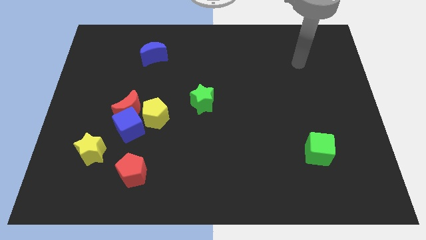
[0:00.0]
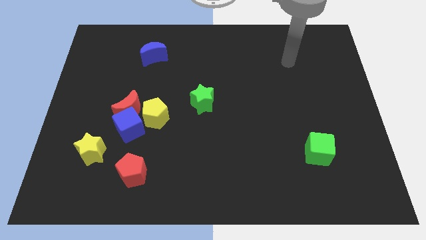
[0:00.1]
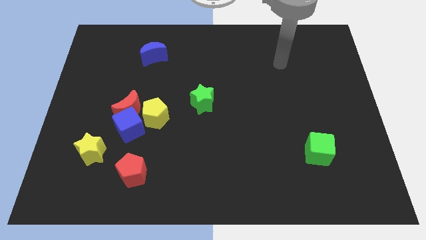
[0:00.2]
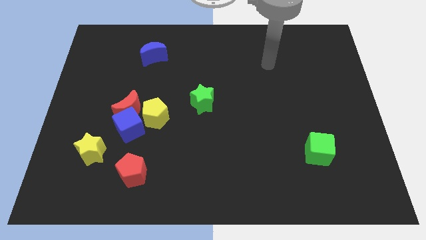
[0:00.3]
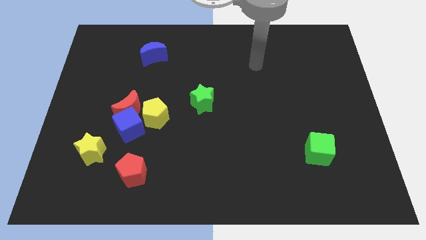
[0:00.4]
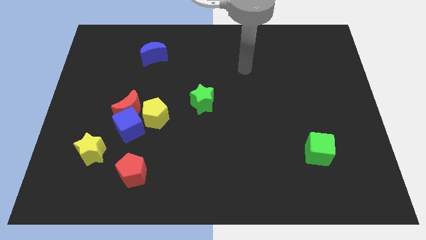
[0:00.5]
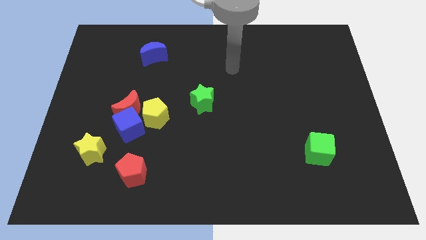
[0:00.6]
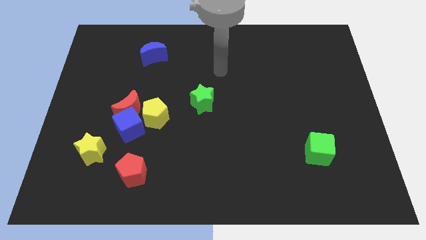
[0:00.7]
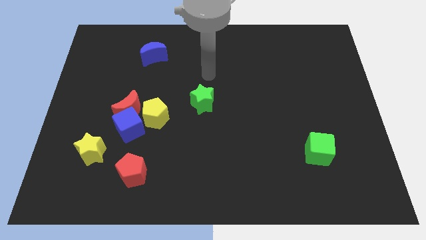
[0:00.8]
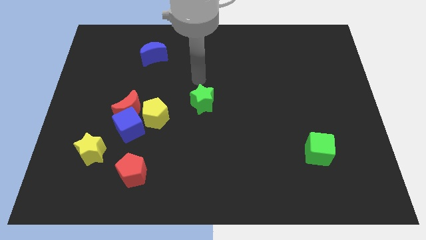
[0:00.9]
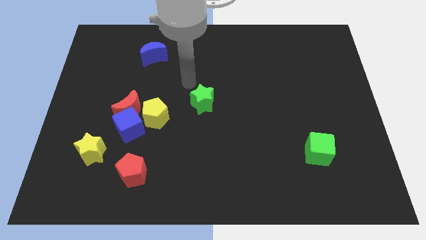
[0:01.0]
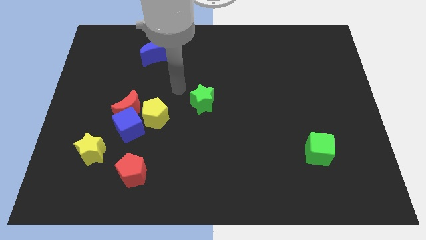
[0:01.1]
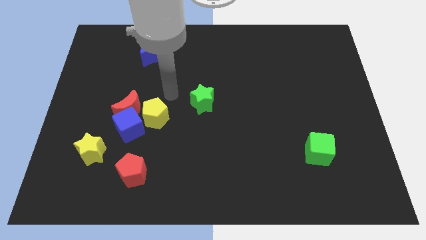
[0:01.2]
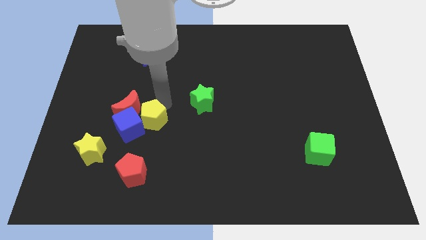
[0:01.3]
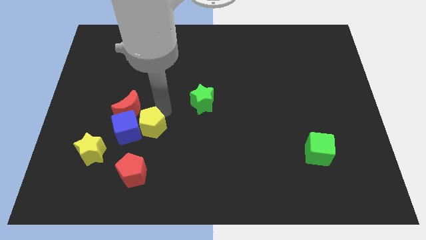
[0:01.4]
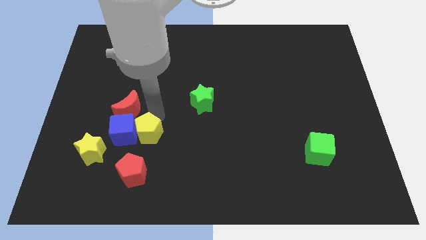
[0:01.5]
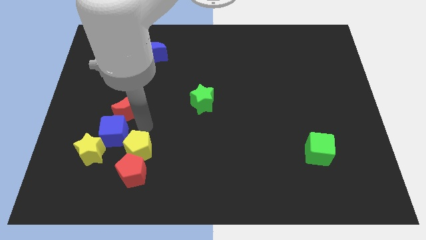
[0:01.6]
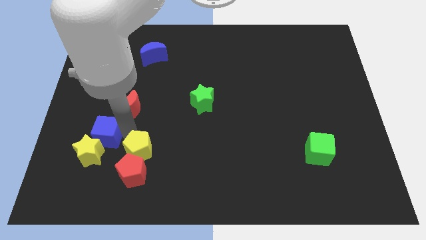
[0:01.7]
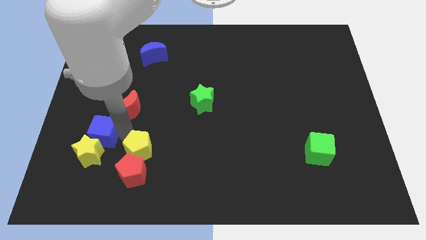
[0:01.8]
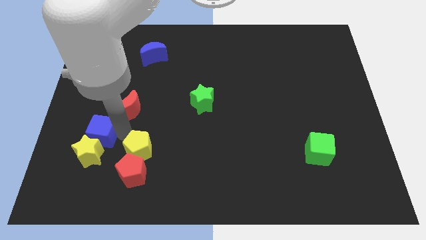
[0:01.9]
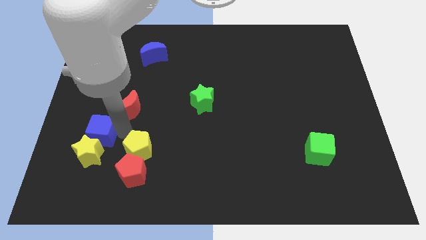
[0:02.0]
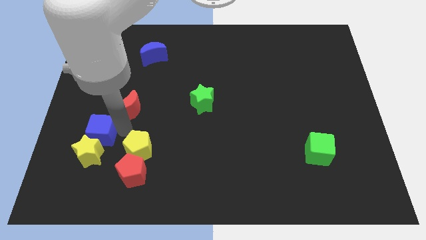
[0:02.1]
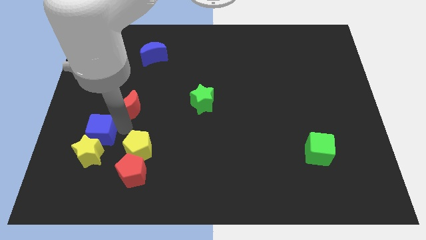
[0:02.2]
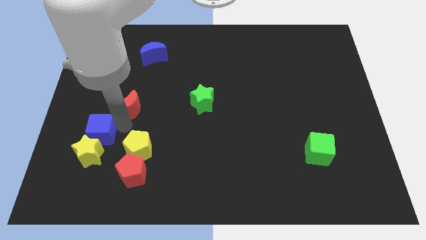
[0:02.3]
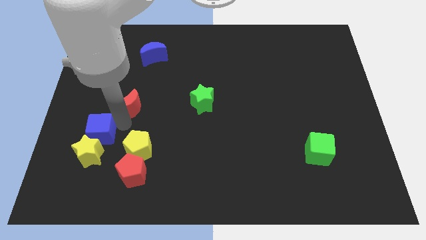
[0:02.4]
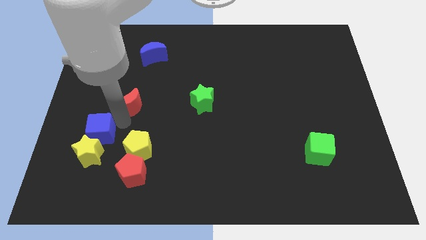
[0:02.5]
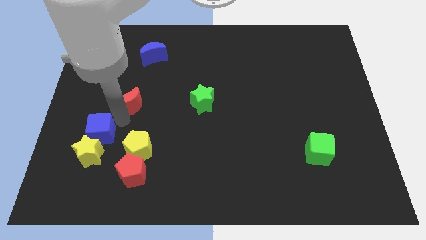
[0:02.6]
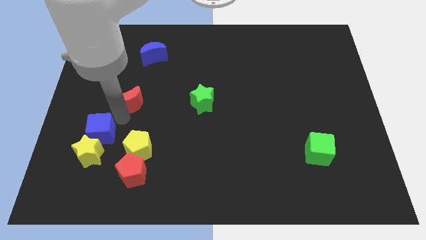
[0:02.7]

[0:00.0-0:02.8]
pull the red moon apart from the blue cube and yellow pentagon

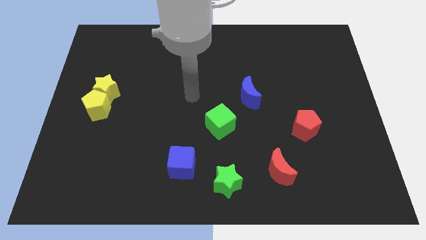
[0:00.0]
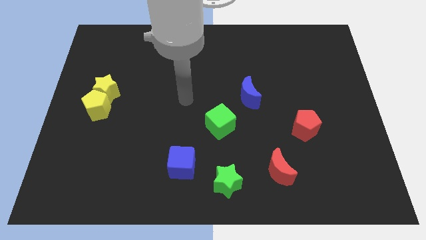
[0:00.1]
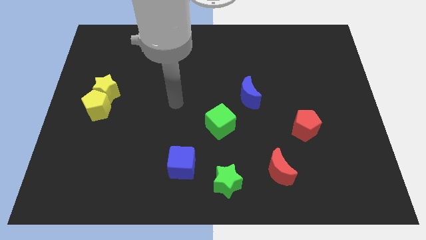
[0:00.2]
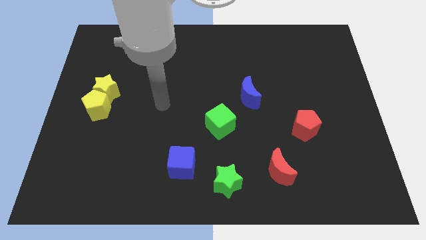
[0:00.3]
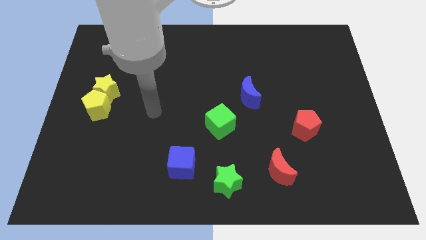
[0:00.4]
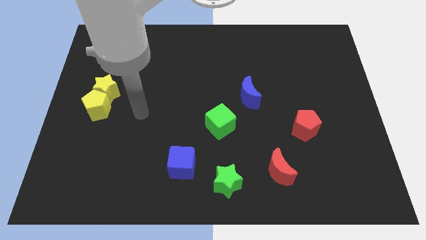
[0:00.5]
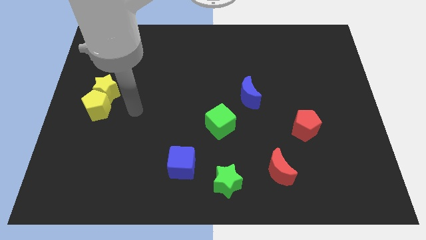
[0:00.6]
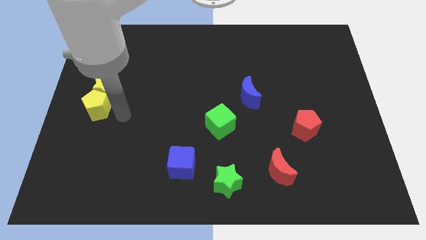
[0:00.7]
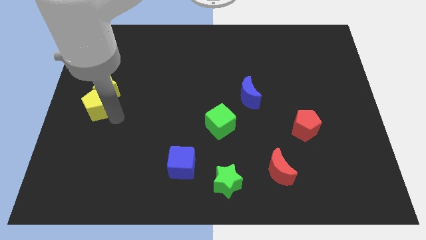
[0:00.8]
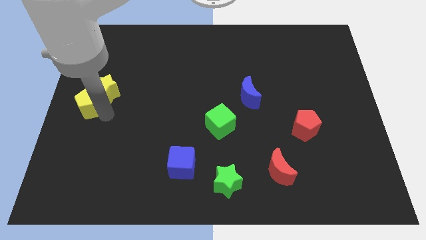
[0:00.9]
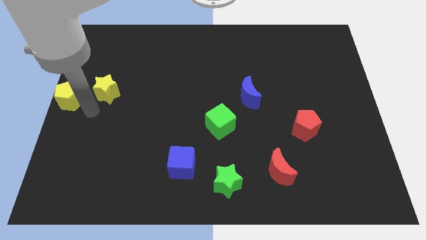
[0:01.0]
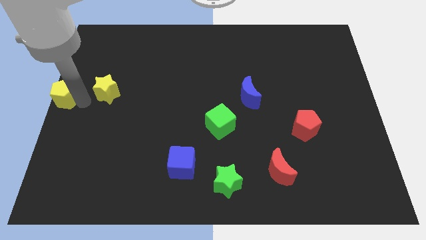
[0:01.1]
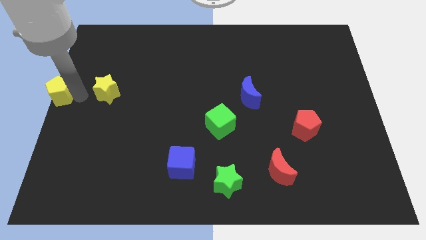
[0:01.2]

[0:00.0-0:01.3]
pull the yellow star apart from the yellow pentagon

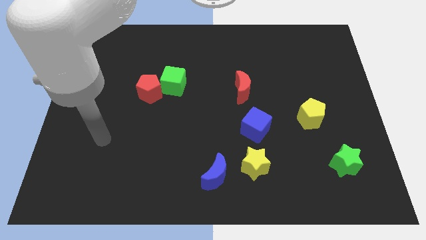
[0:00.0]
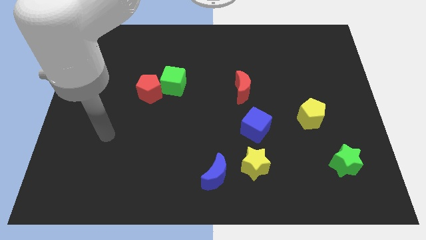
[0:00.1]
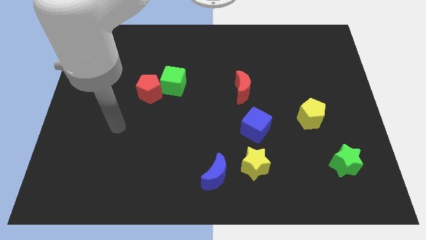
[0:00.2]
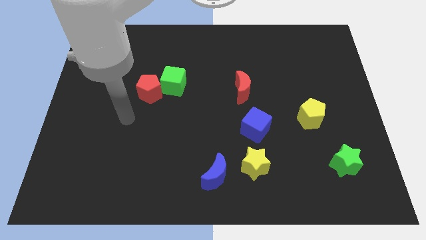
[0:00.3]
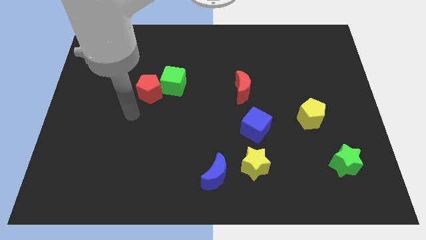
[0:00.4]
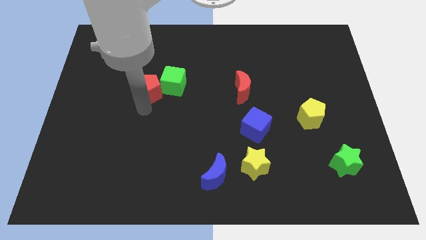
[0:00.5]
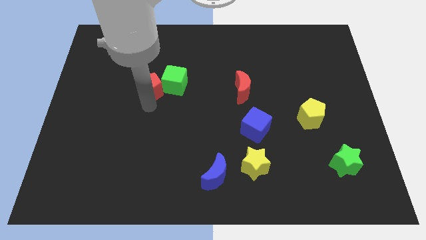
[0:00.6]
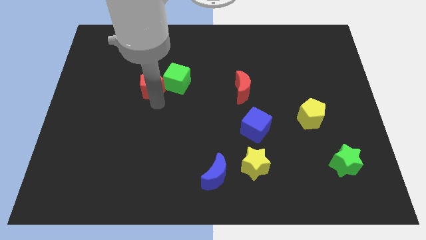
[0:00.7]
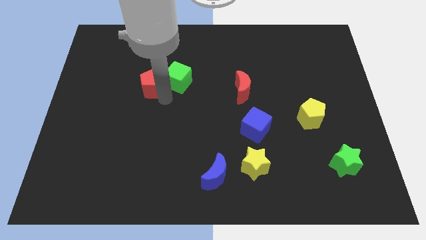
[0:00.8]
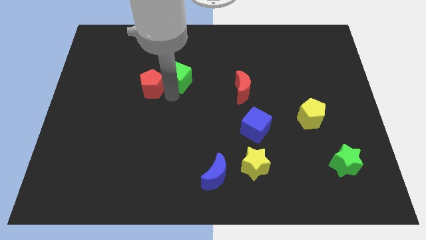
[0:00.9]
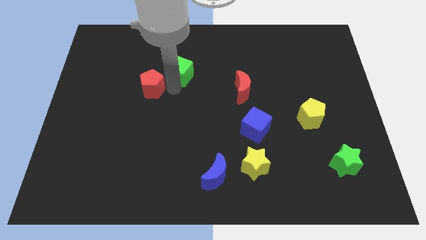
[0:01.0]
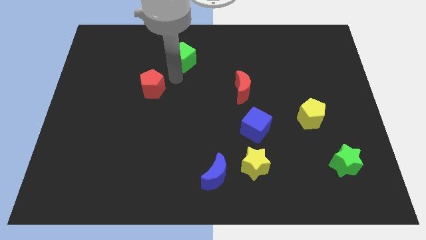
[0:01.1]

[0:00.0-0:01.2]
move the red pentagon away from the green cube

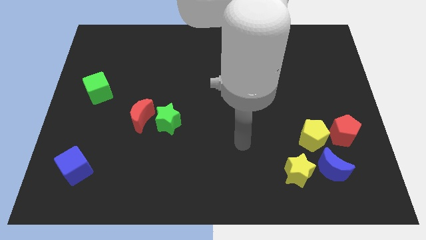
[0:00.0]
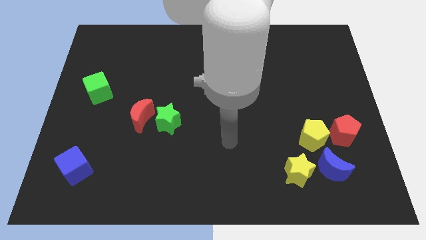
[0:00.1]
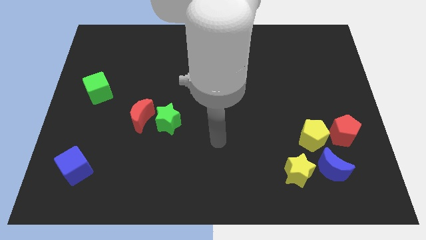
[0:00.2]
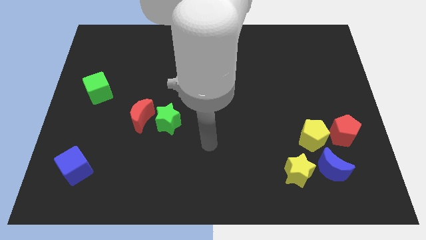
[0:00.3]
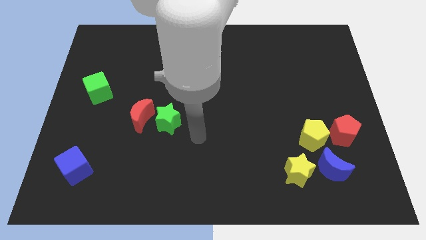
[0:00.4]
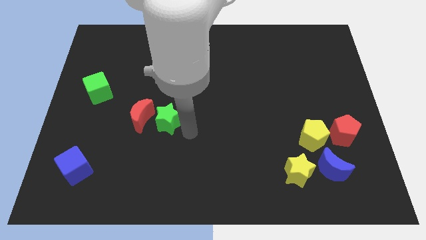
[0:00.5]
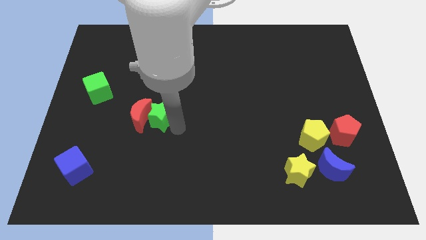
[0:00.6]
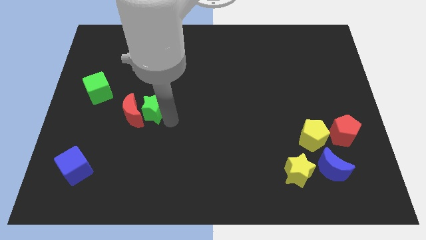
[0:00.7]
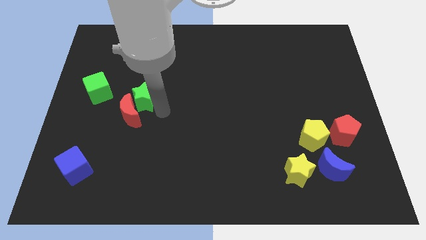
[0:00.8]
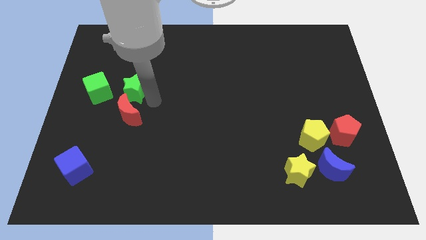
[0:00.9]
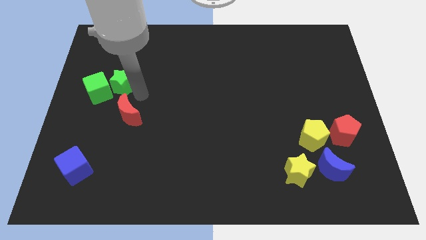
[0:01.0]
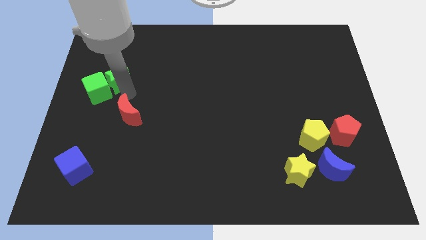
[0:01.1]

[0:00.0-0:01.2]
separate the red moon from the green star

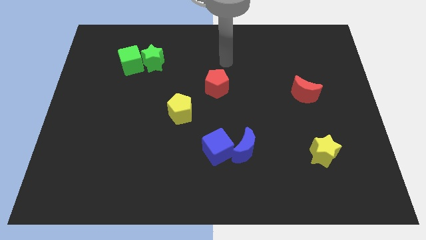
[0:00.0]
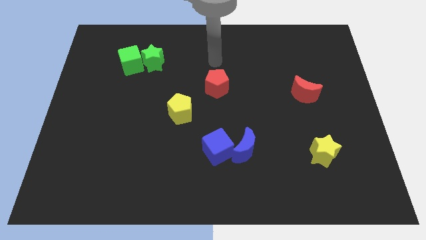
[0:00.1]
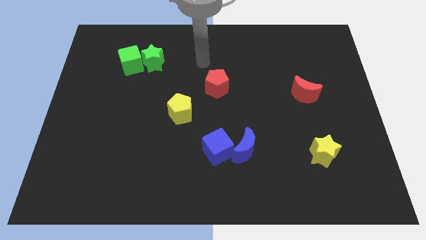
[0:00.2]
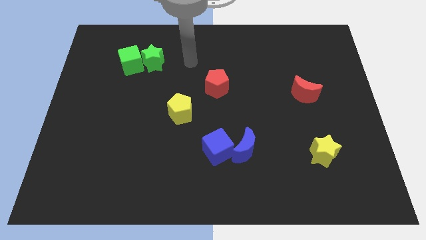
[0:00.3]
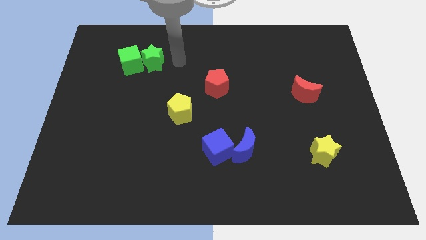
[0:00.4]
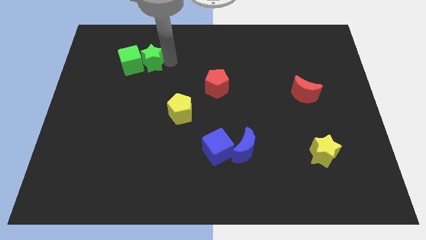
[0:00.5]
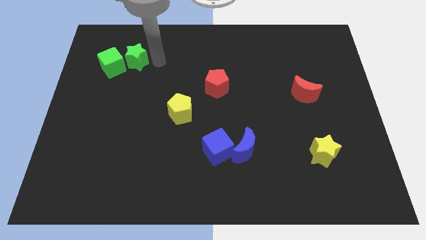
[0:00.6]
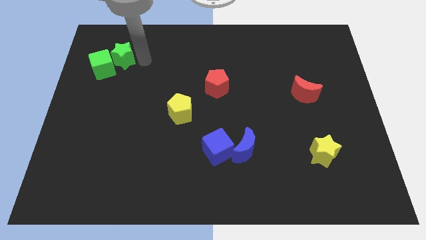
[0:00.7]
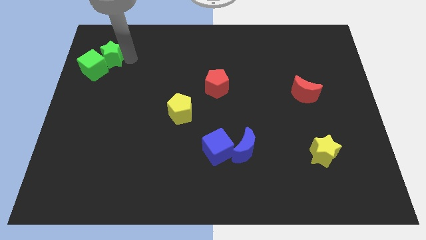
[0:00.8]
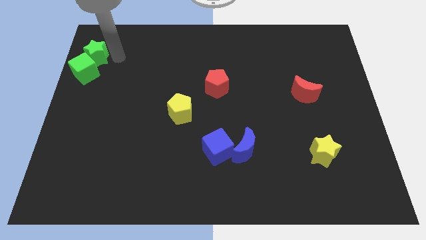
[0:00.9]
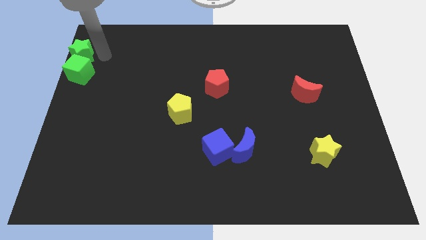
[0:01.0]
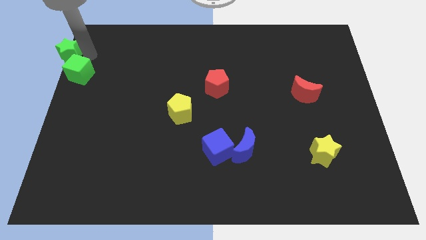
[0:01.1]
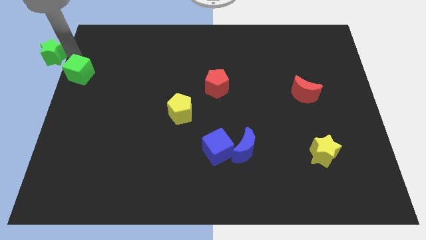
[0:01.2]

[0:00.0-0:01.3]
separate the green cube from the green star

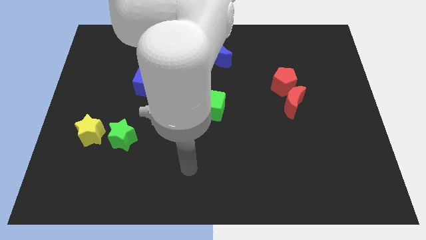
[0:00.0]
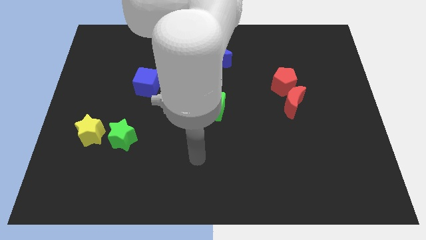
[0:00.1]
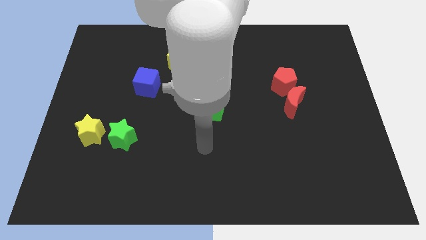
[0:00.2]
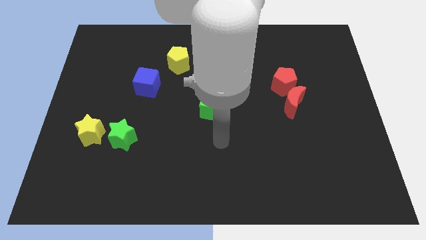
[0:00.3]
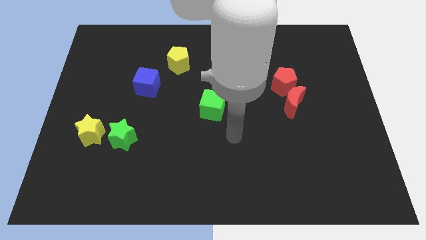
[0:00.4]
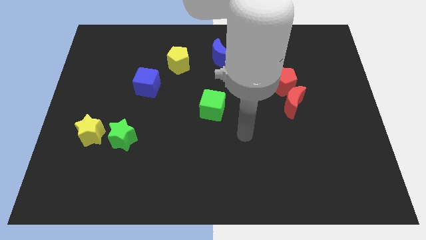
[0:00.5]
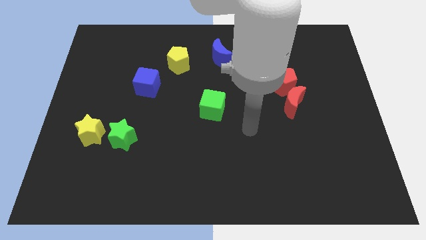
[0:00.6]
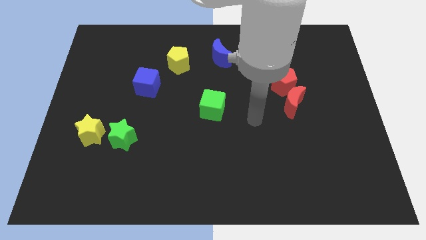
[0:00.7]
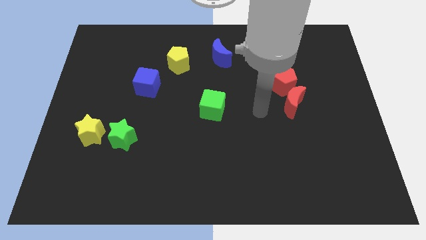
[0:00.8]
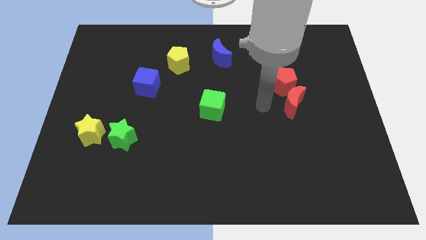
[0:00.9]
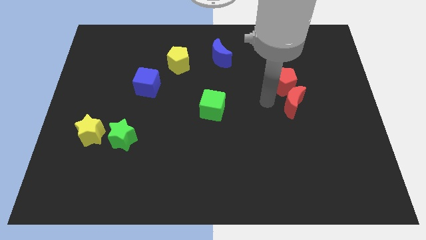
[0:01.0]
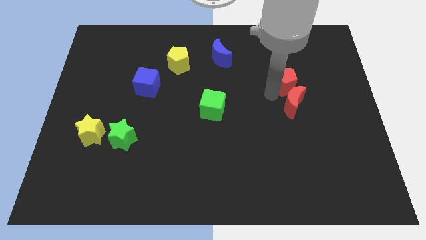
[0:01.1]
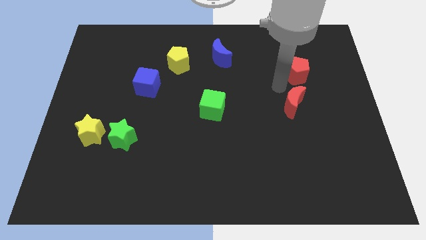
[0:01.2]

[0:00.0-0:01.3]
pull the red moon apart from the red pentagon

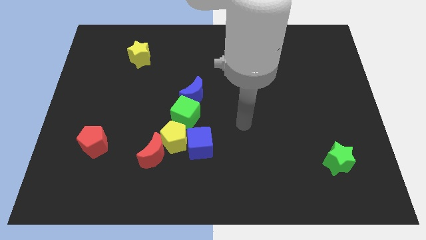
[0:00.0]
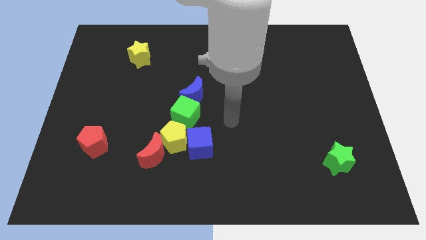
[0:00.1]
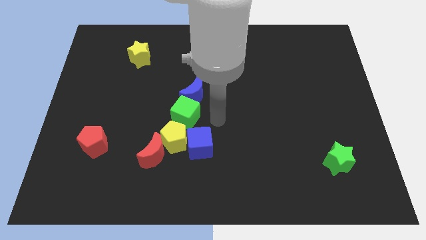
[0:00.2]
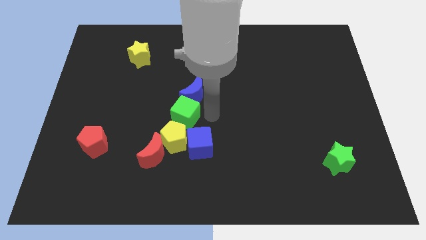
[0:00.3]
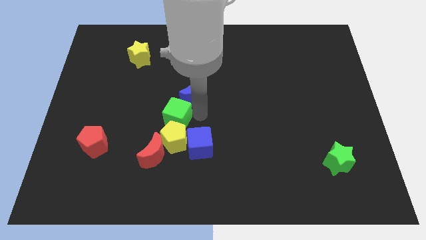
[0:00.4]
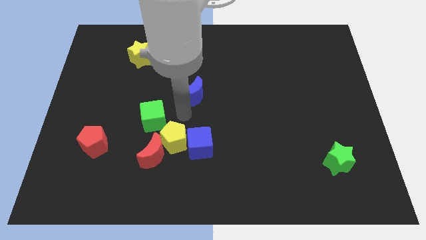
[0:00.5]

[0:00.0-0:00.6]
pull the blue moon apart from the green cube
